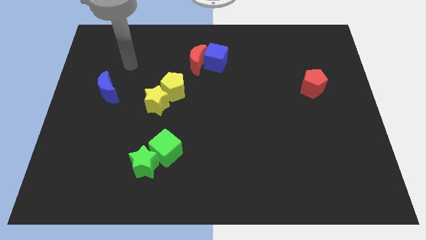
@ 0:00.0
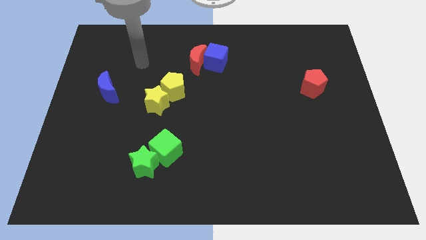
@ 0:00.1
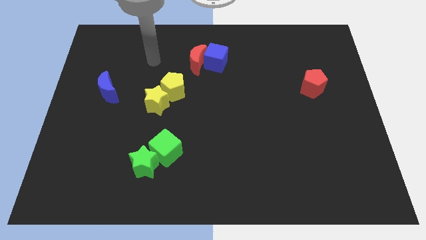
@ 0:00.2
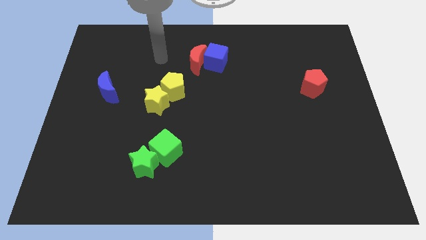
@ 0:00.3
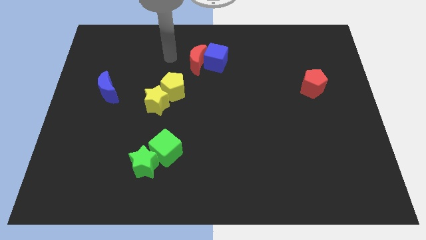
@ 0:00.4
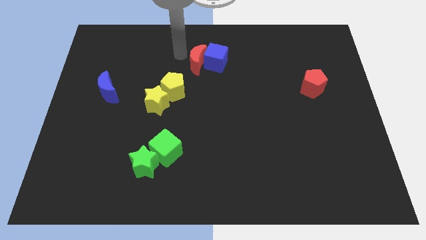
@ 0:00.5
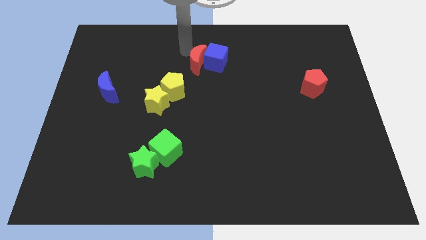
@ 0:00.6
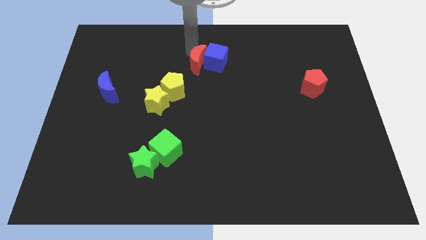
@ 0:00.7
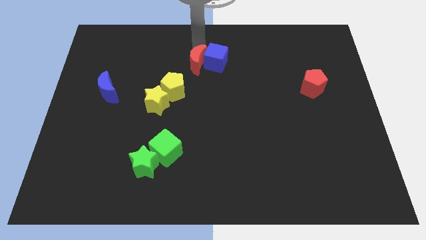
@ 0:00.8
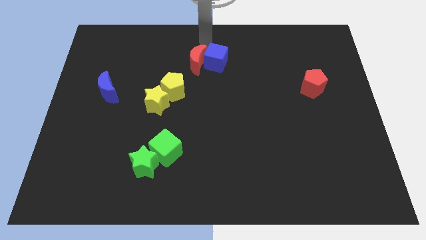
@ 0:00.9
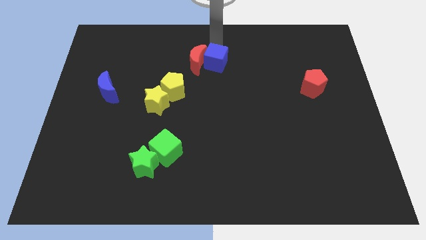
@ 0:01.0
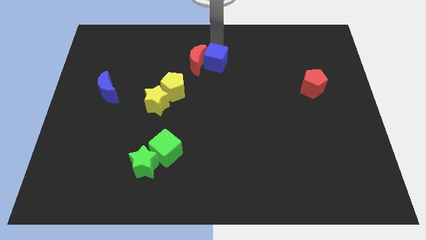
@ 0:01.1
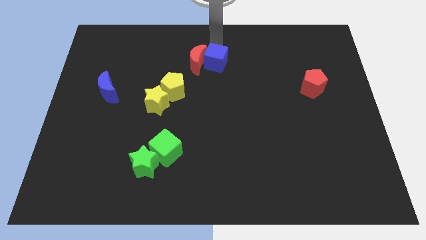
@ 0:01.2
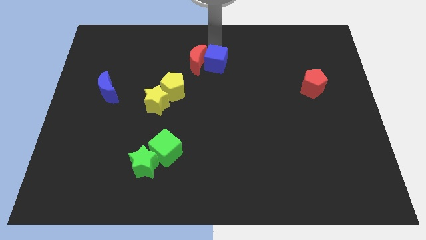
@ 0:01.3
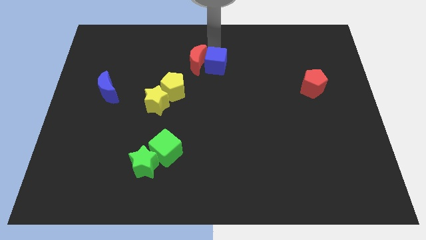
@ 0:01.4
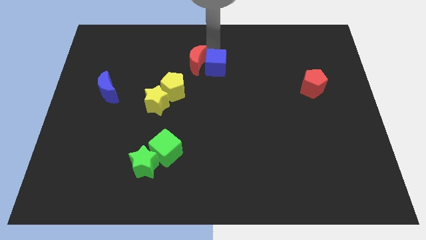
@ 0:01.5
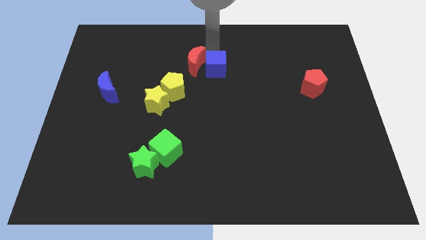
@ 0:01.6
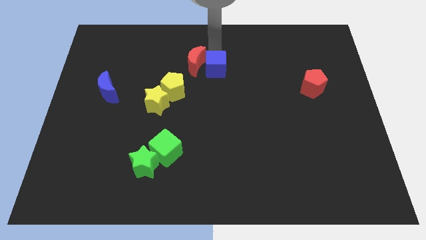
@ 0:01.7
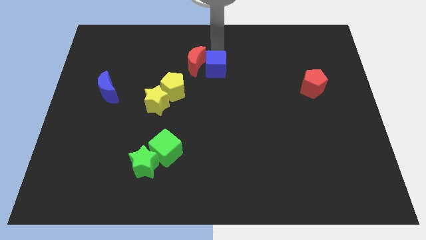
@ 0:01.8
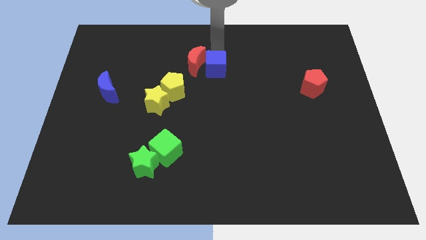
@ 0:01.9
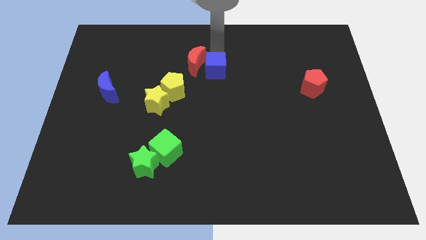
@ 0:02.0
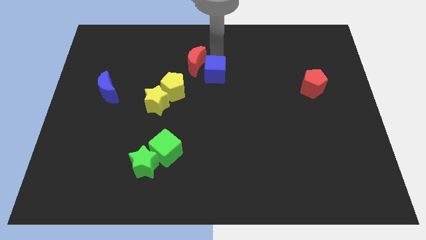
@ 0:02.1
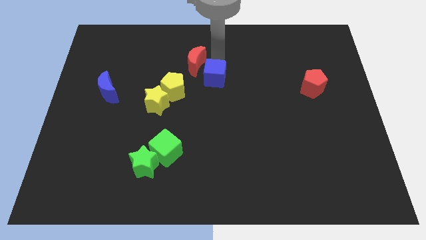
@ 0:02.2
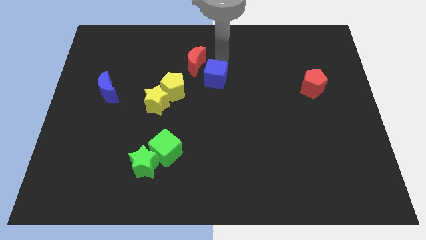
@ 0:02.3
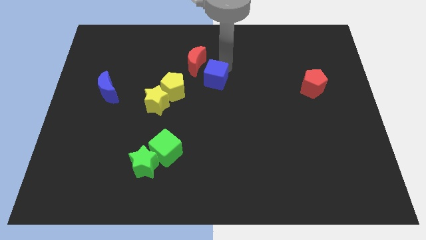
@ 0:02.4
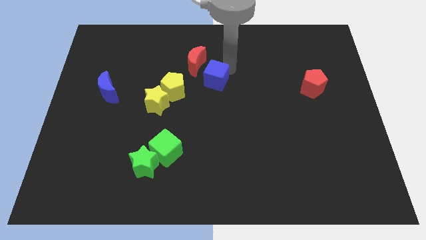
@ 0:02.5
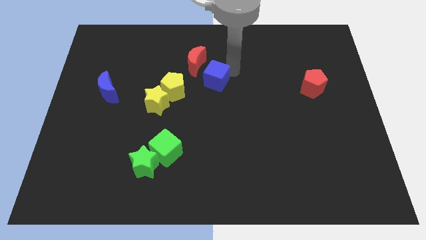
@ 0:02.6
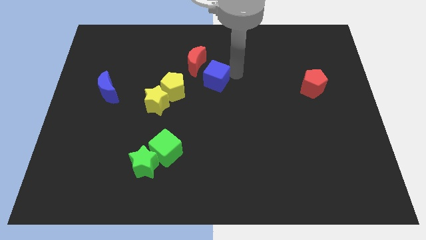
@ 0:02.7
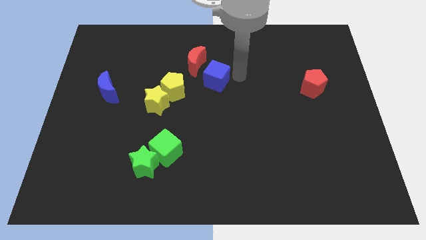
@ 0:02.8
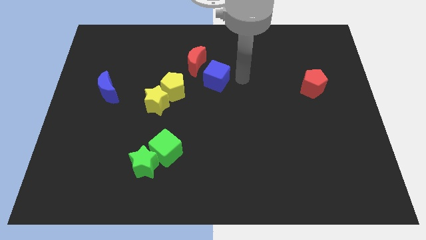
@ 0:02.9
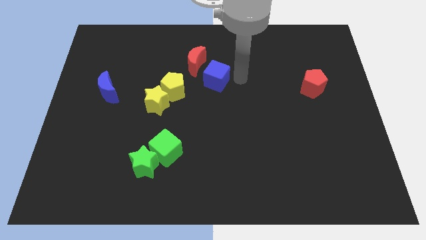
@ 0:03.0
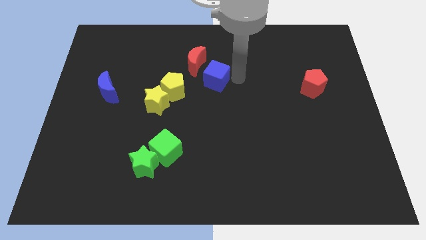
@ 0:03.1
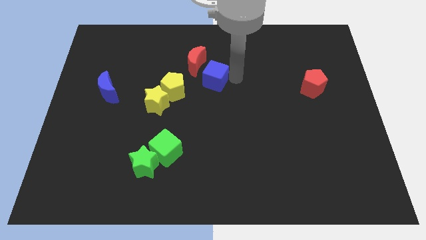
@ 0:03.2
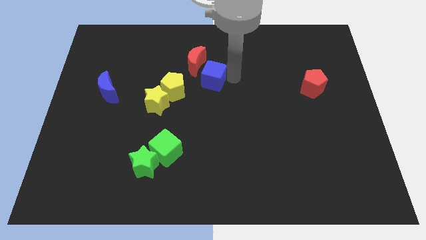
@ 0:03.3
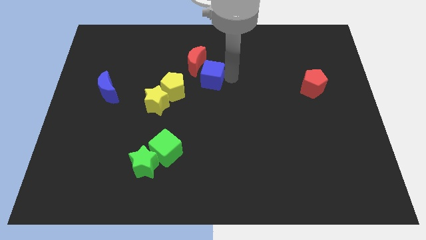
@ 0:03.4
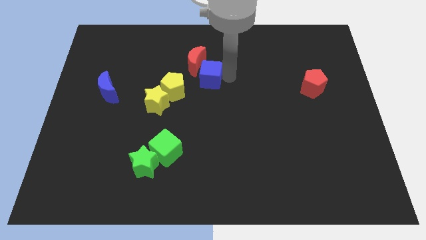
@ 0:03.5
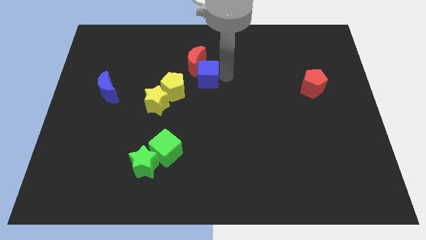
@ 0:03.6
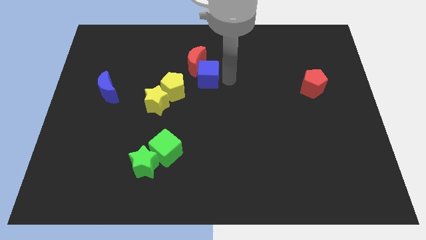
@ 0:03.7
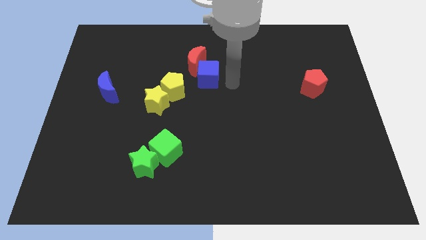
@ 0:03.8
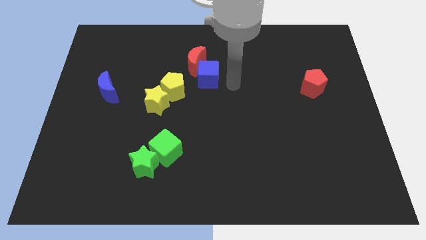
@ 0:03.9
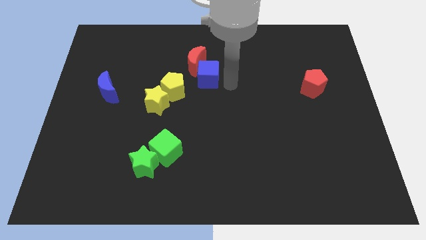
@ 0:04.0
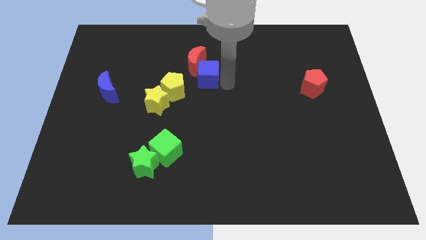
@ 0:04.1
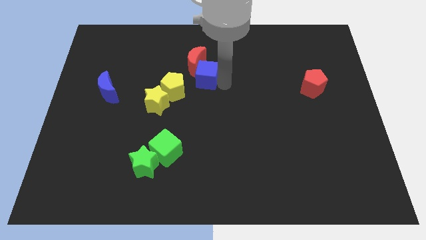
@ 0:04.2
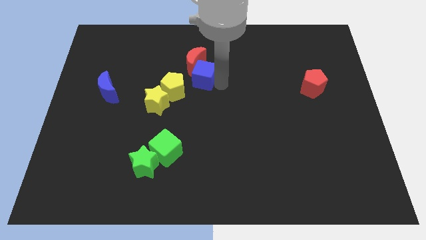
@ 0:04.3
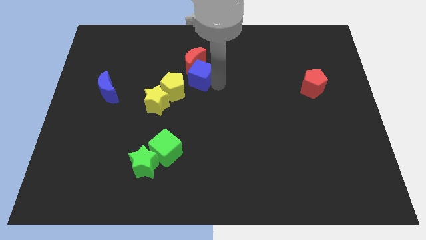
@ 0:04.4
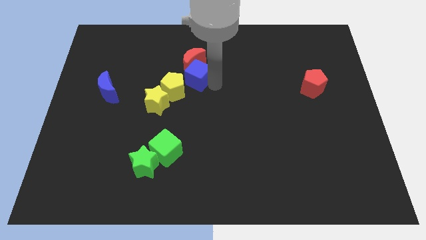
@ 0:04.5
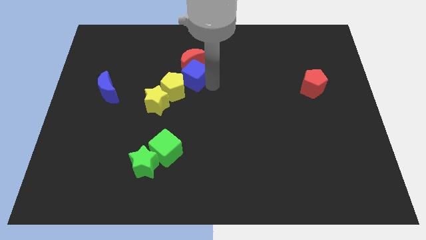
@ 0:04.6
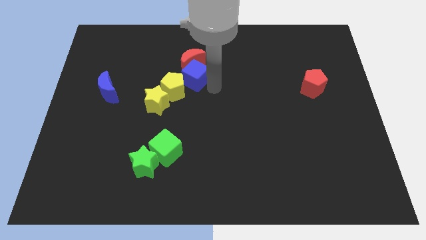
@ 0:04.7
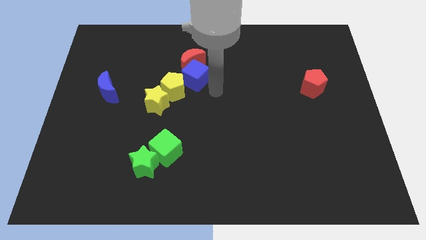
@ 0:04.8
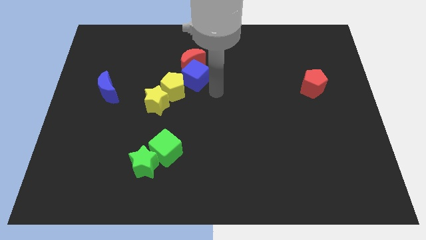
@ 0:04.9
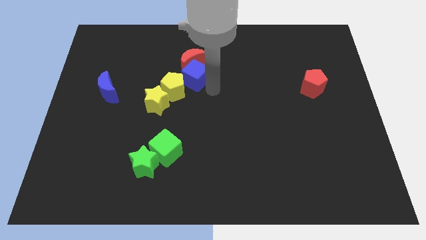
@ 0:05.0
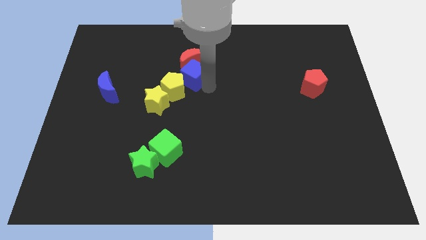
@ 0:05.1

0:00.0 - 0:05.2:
push the blue cube to the top side of the yellow pentagon
